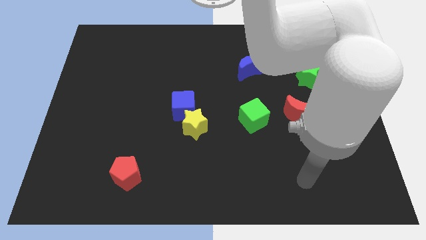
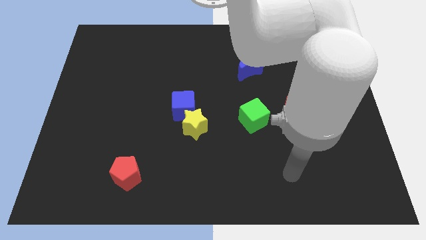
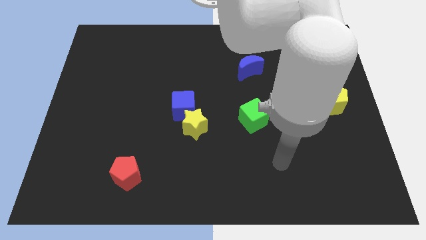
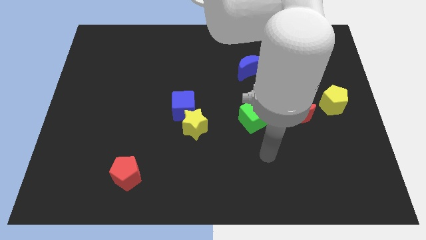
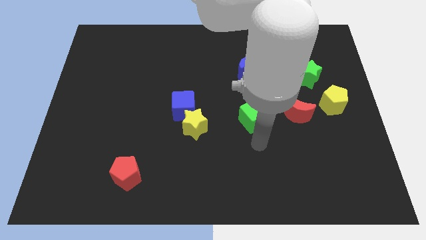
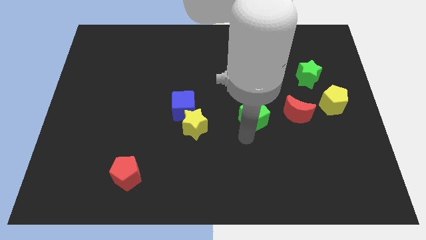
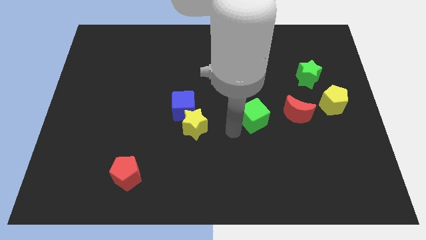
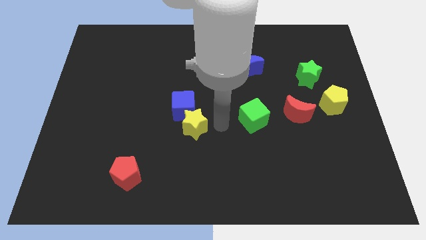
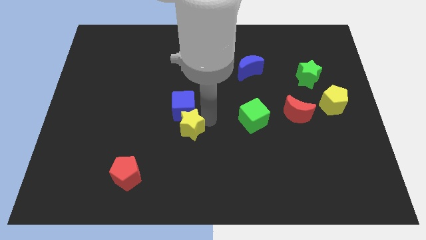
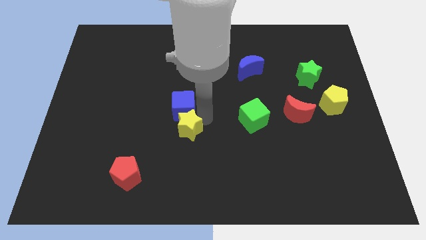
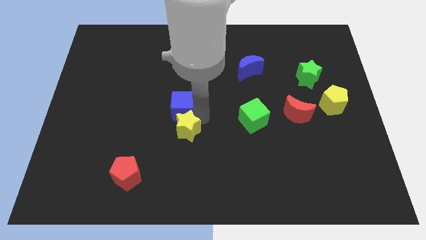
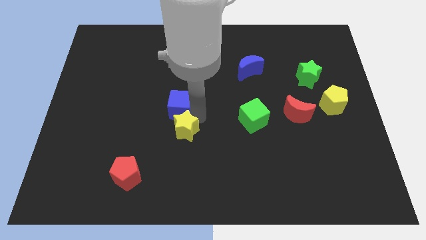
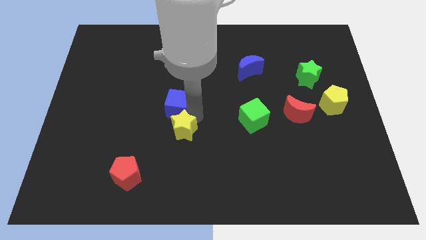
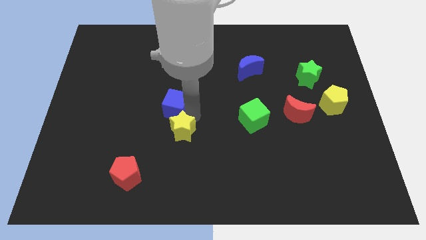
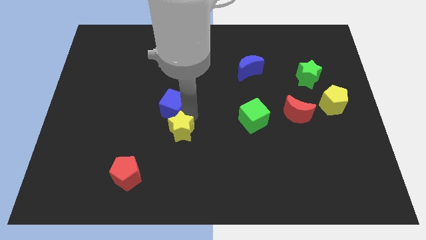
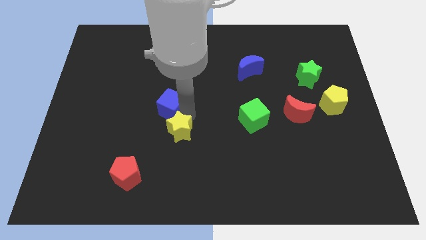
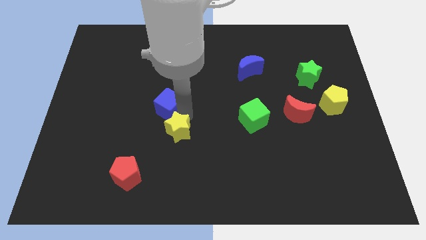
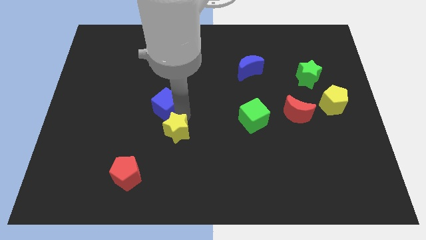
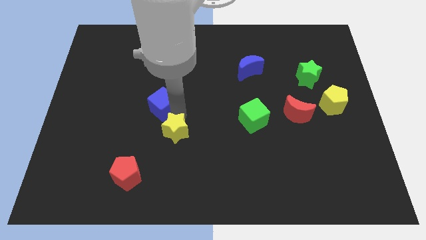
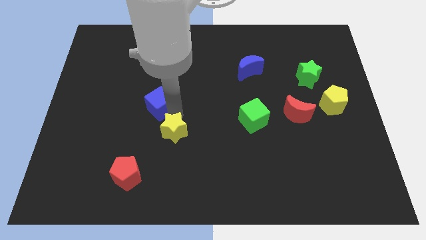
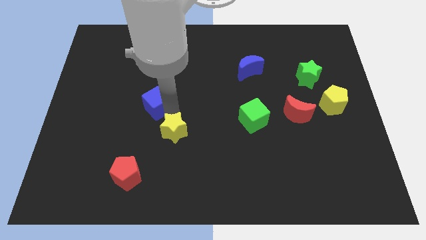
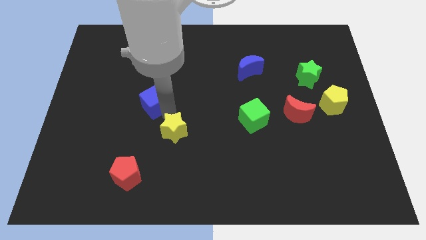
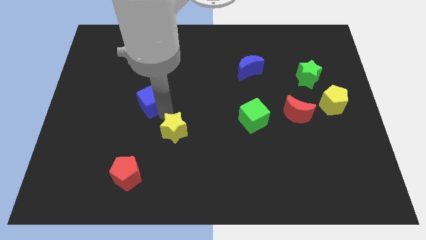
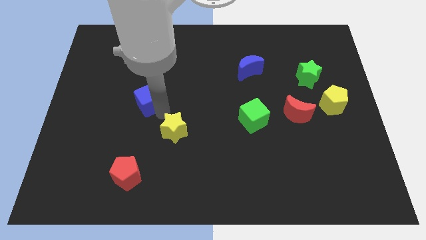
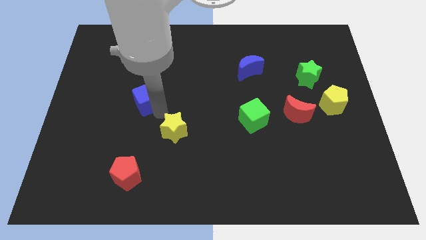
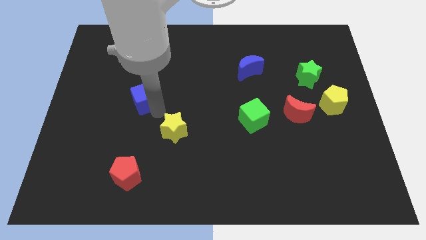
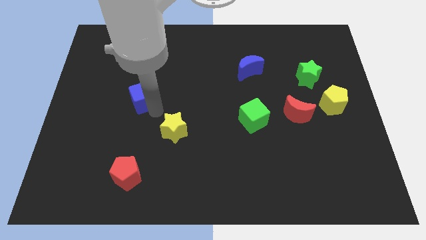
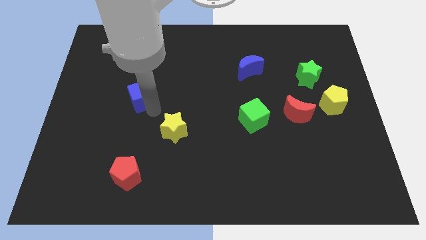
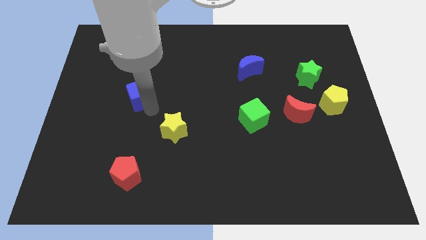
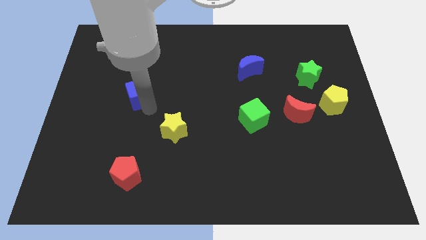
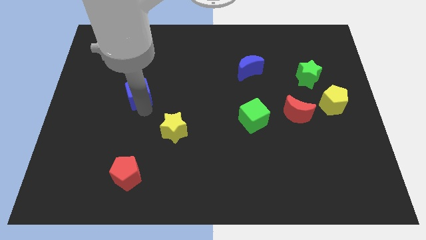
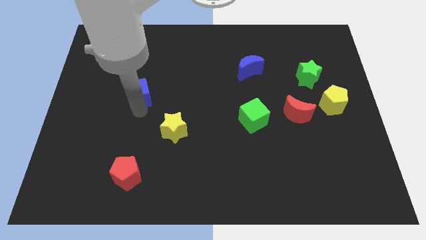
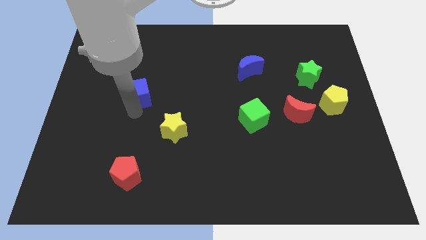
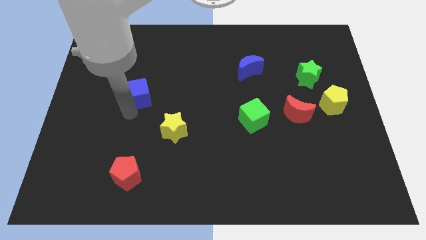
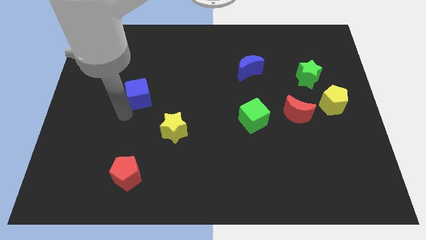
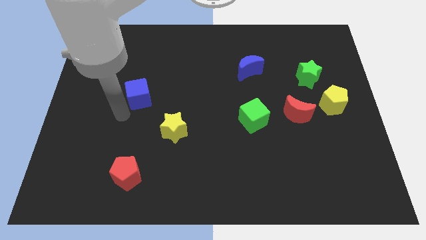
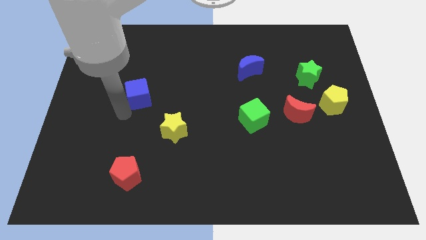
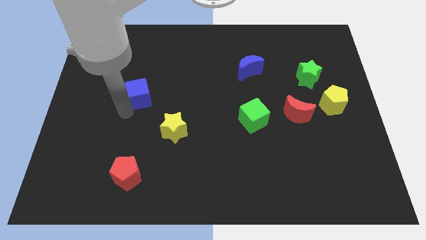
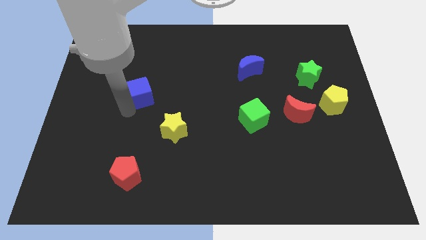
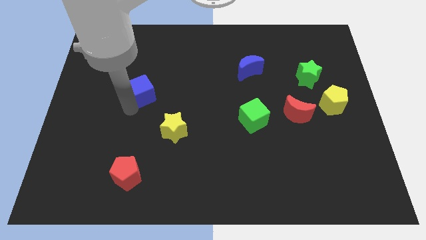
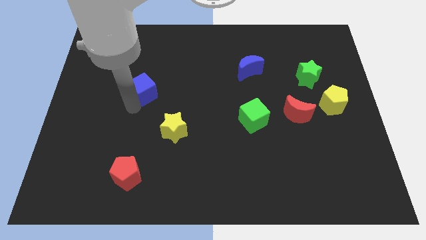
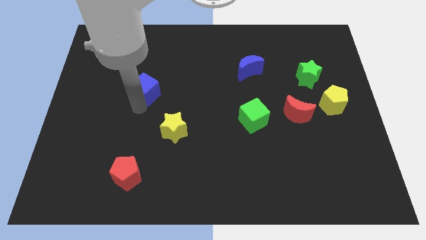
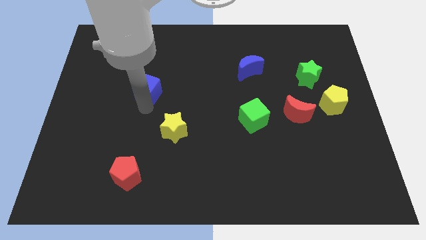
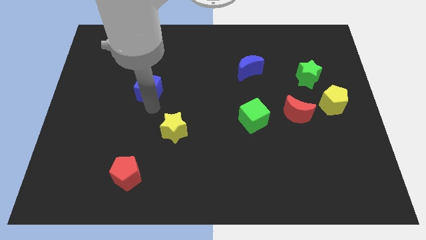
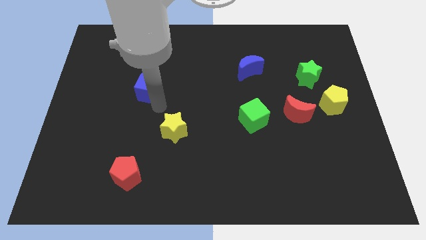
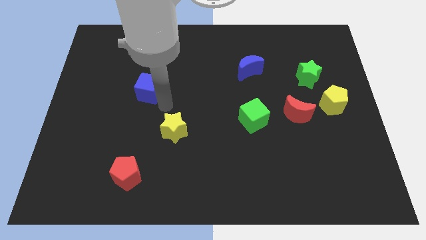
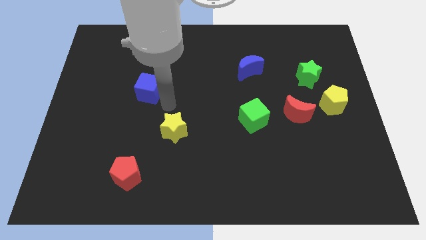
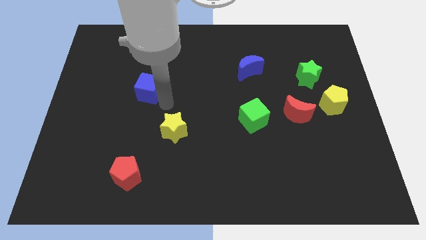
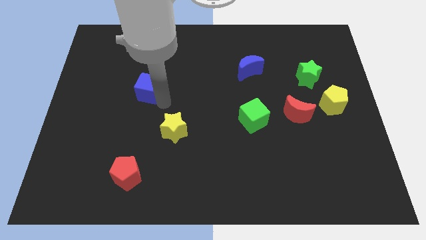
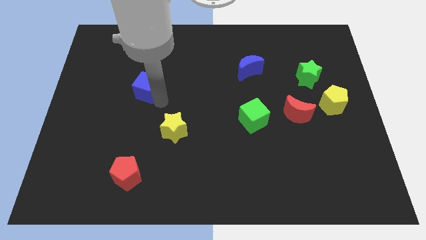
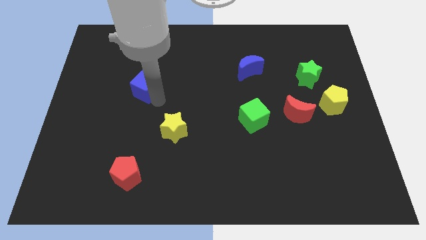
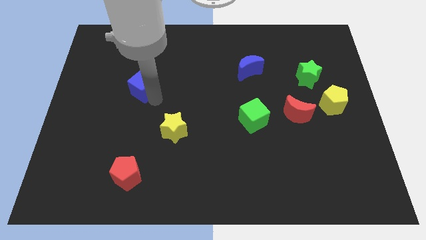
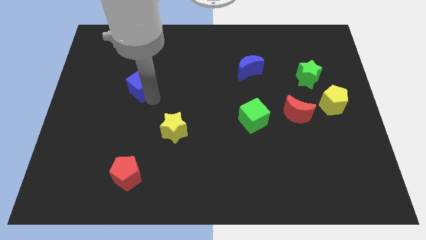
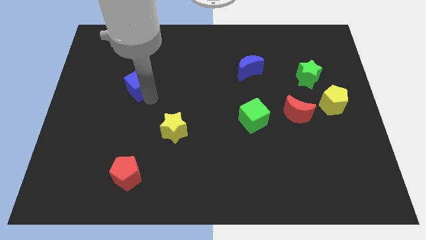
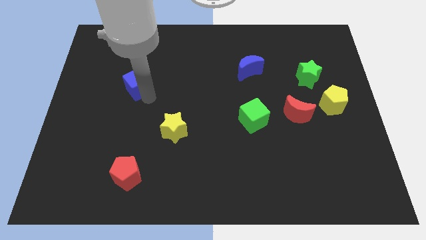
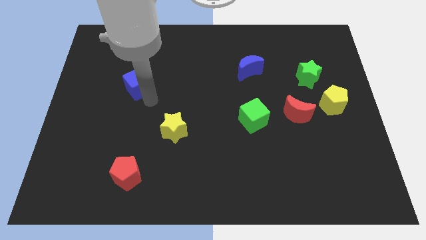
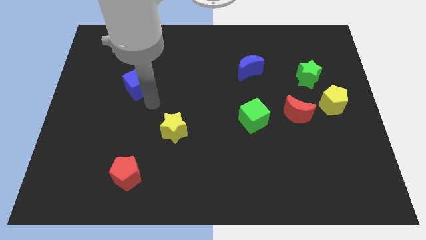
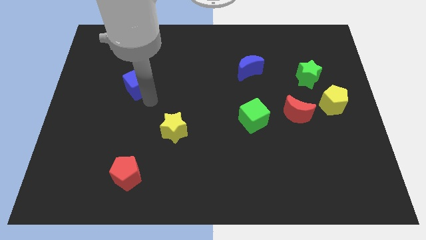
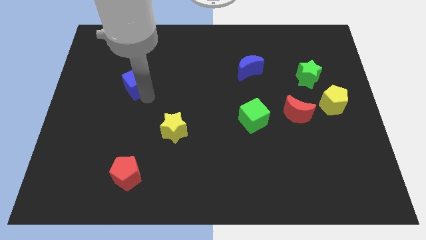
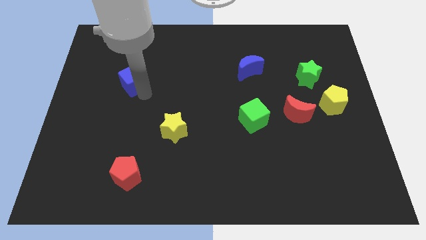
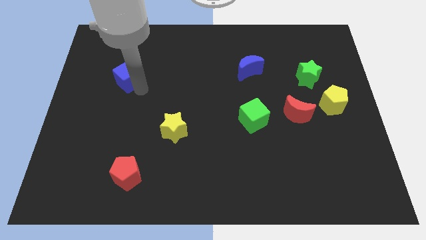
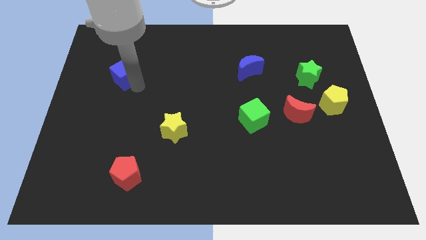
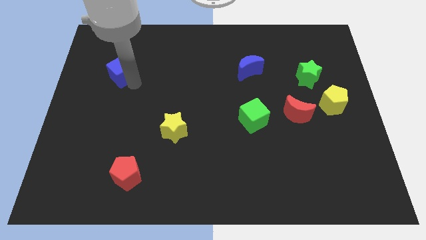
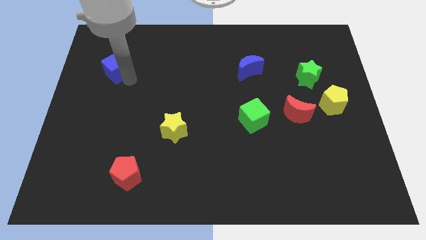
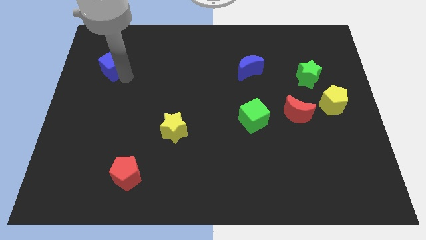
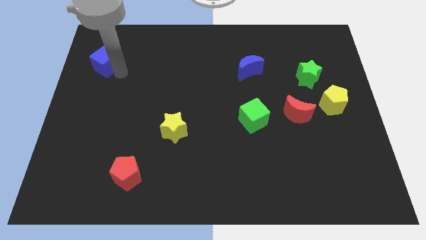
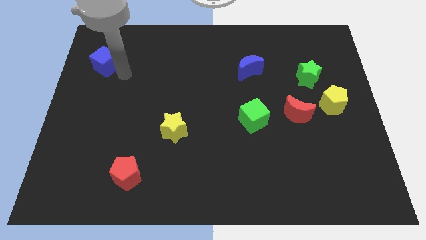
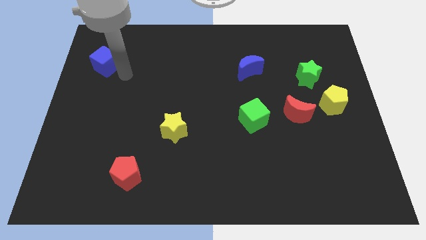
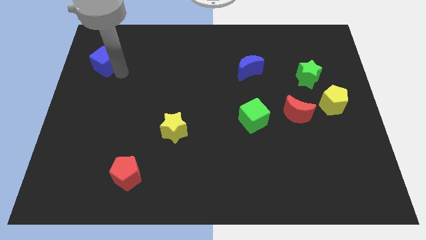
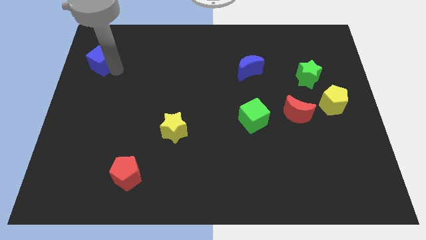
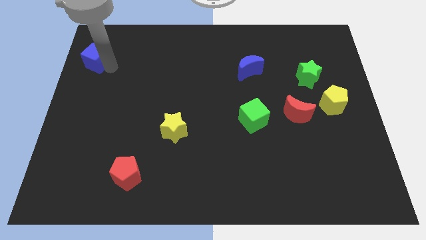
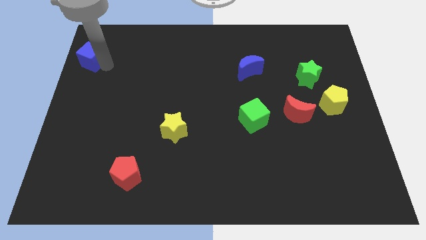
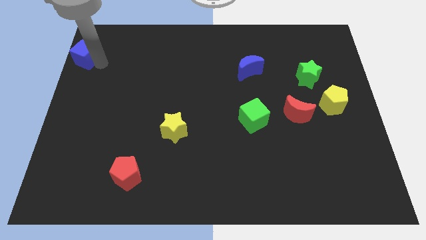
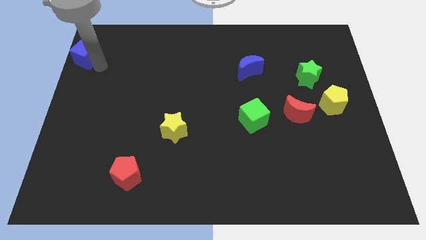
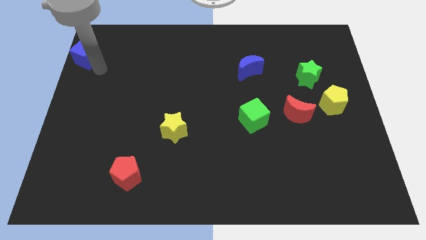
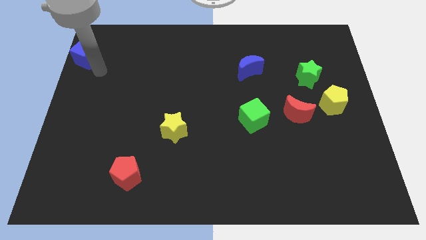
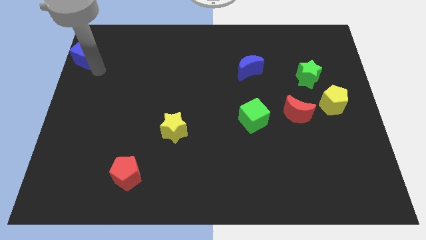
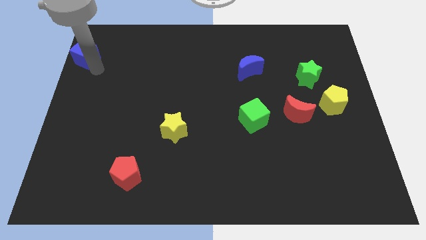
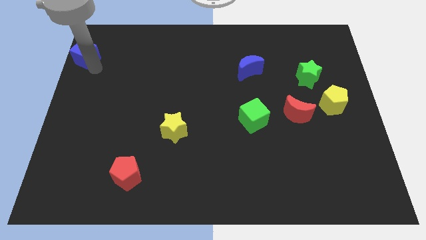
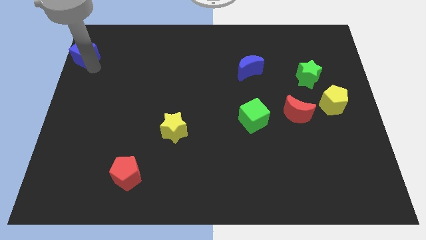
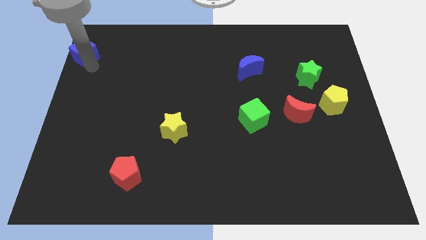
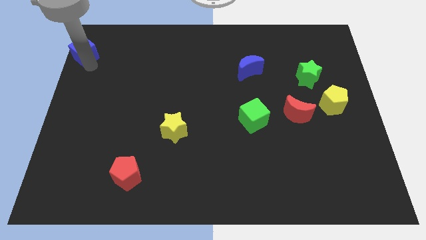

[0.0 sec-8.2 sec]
move the blue cube to the upper left corner
